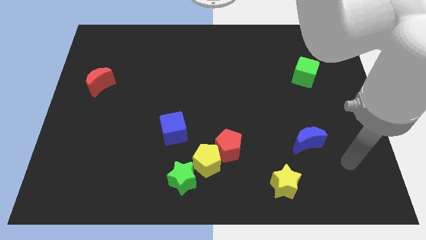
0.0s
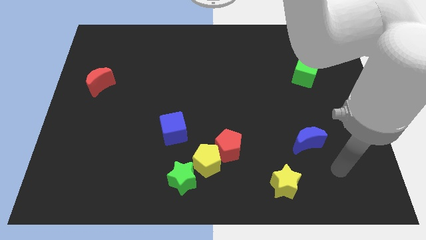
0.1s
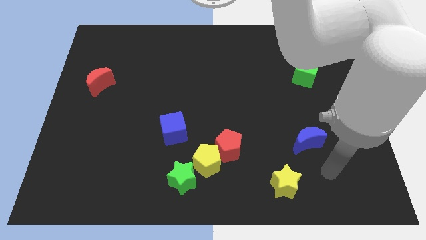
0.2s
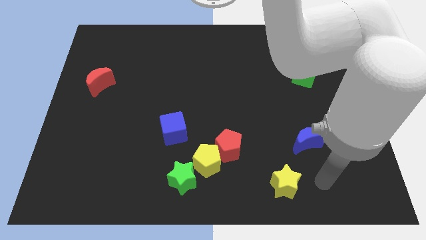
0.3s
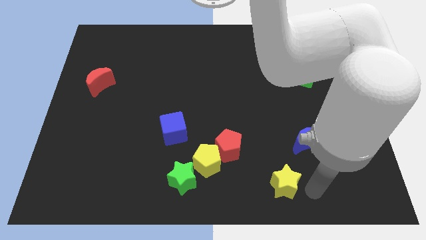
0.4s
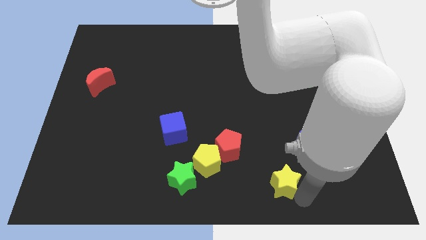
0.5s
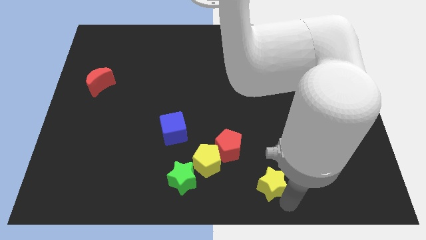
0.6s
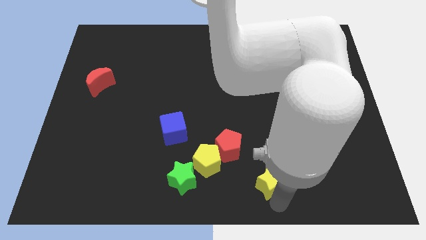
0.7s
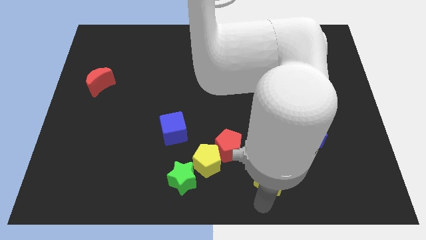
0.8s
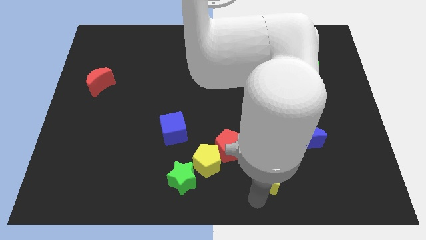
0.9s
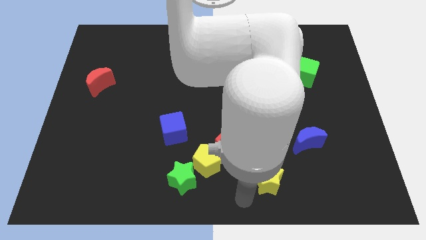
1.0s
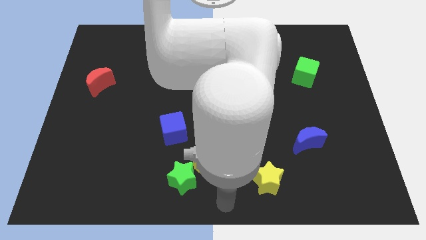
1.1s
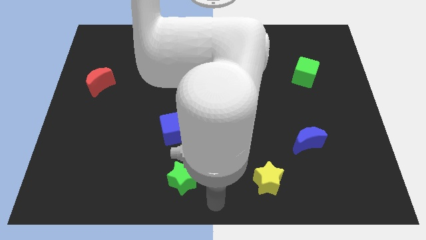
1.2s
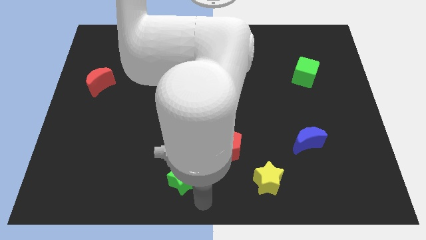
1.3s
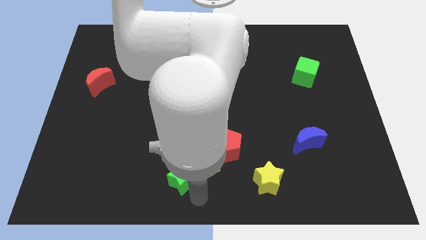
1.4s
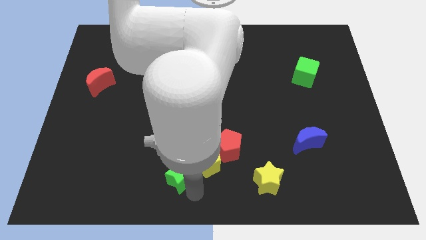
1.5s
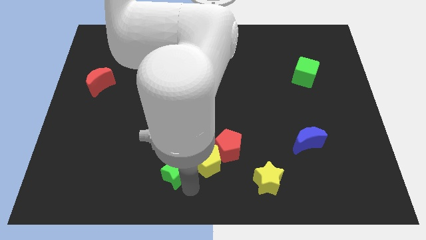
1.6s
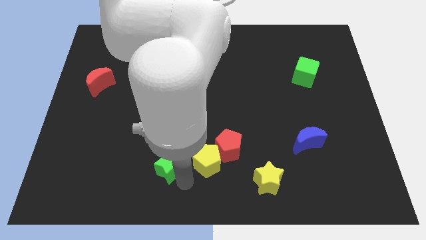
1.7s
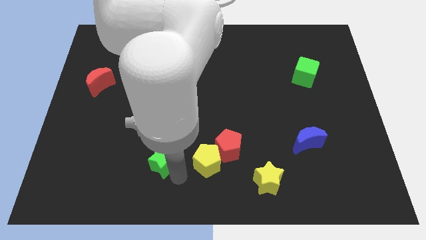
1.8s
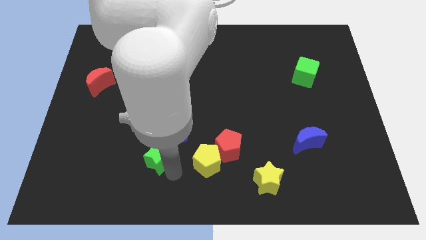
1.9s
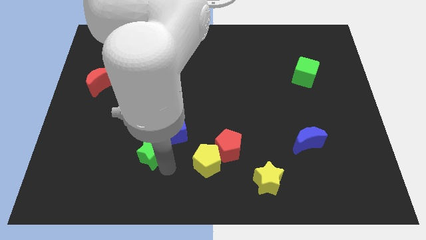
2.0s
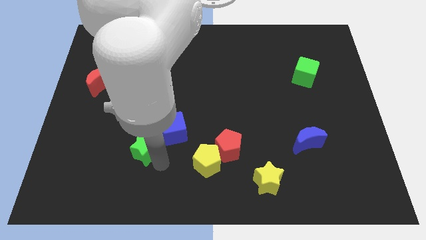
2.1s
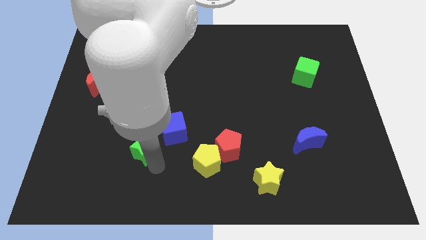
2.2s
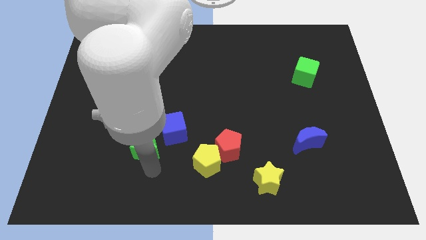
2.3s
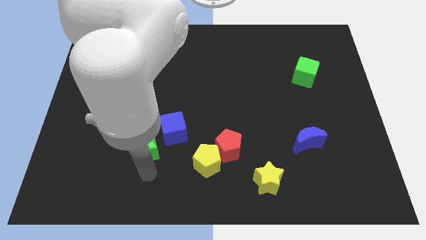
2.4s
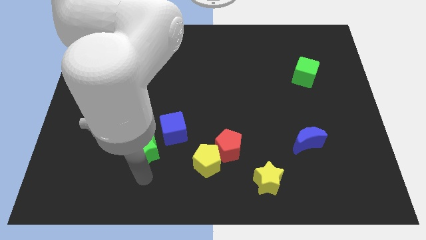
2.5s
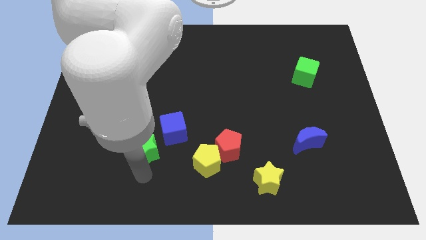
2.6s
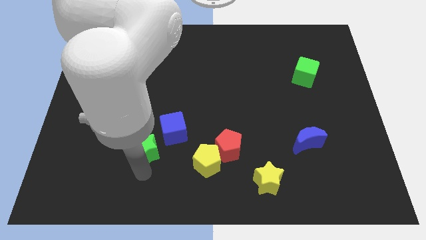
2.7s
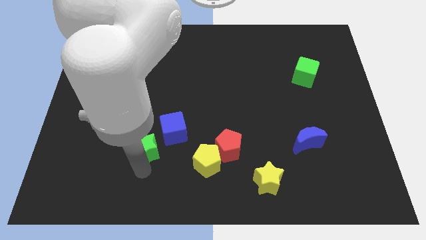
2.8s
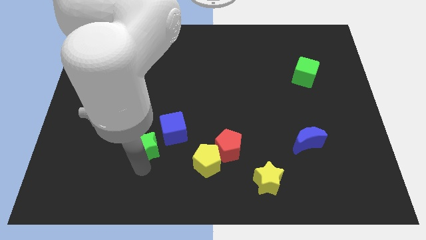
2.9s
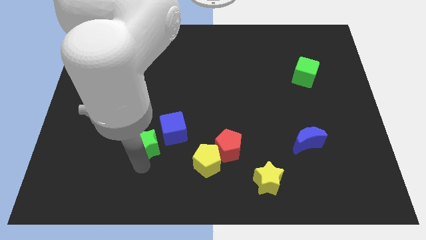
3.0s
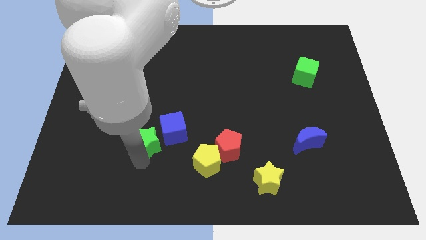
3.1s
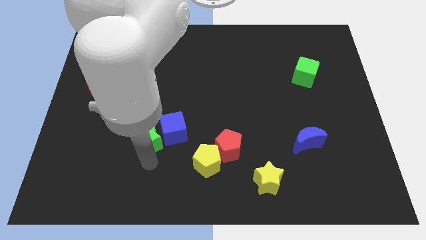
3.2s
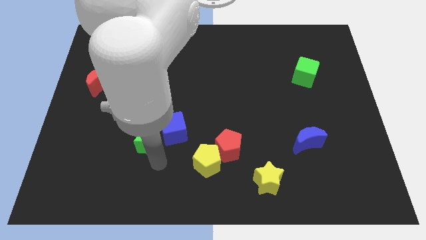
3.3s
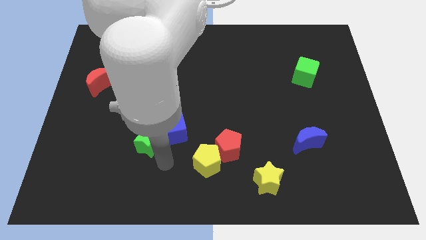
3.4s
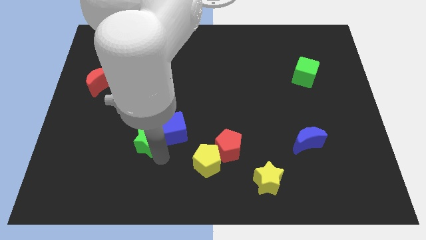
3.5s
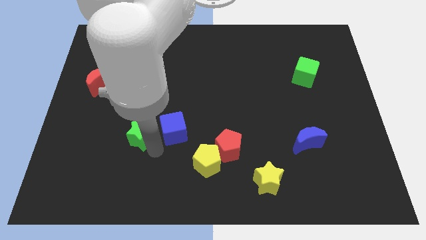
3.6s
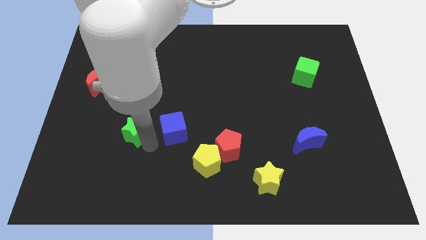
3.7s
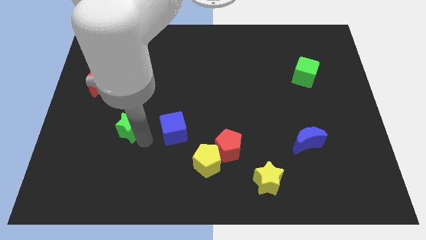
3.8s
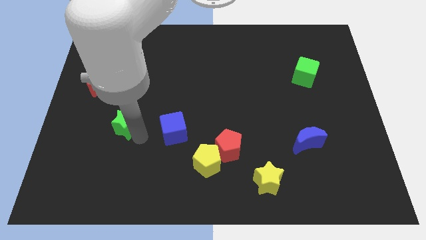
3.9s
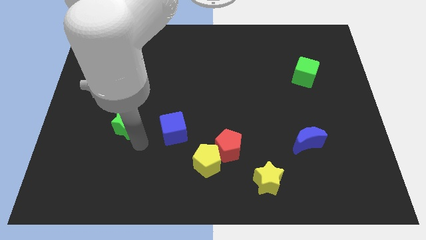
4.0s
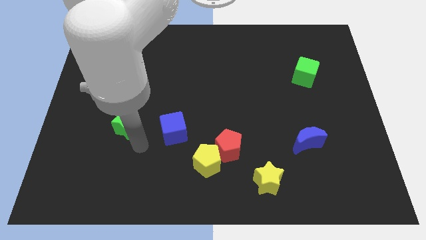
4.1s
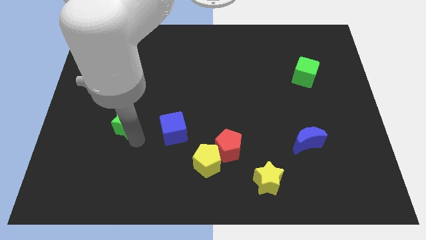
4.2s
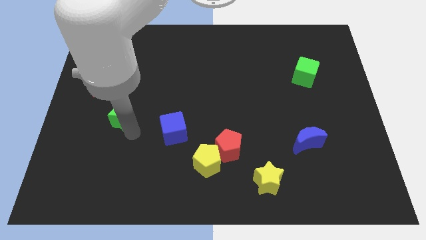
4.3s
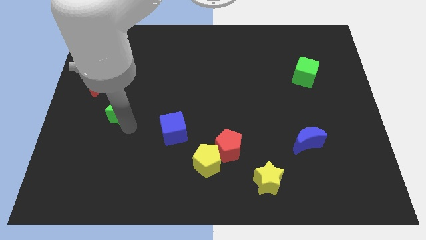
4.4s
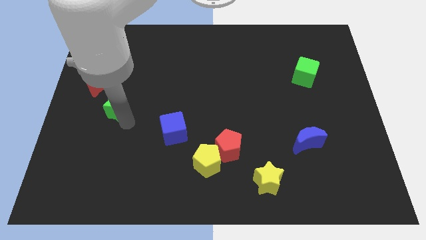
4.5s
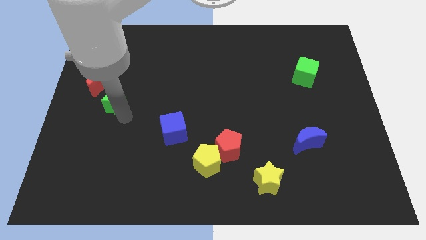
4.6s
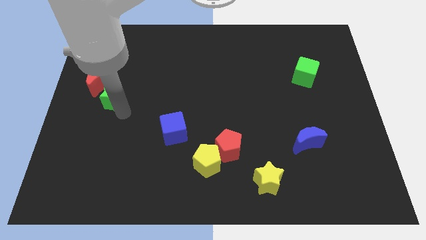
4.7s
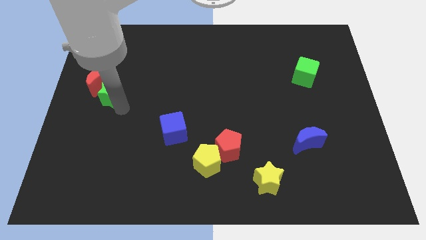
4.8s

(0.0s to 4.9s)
push the green star towards the red moon

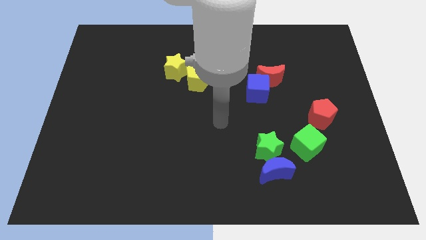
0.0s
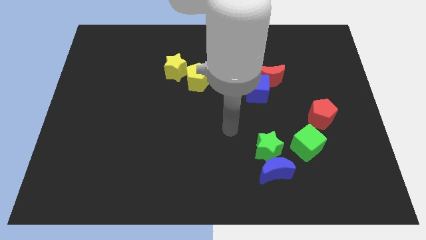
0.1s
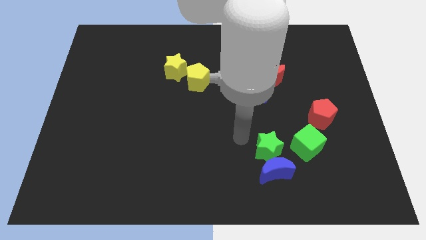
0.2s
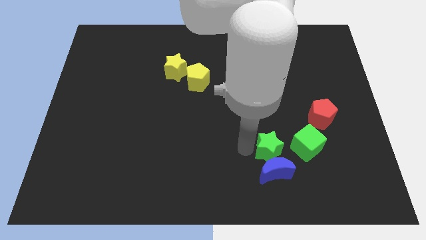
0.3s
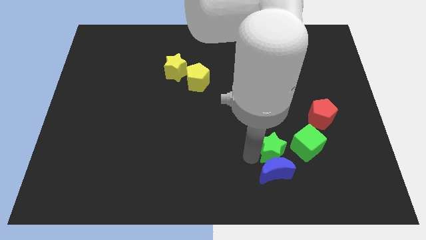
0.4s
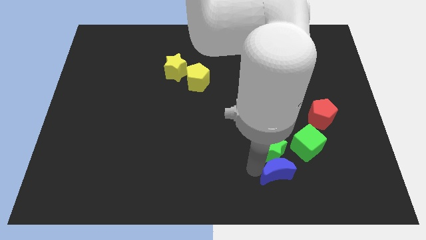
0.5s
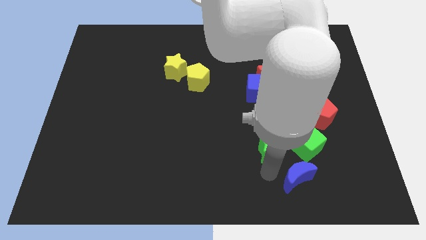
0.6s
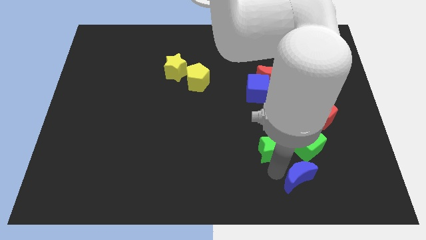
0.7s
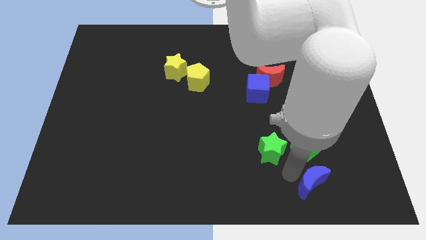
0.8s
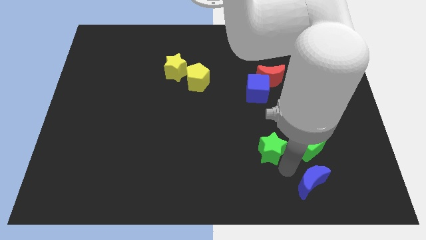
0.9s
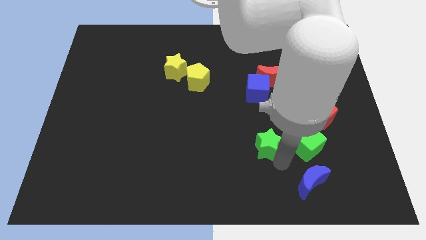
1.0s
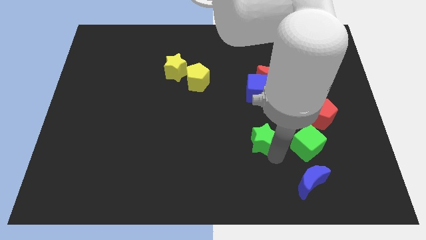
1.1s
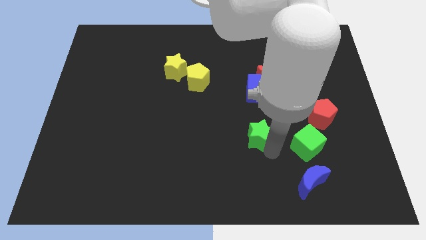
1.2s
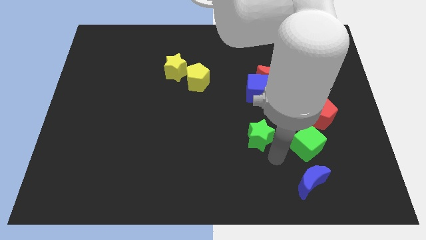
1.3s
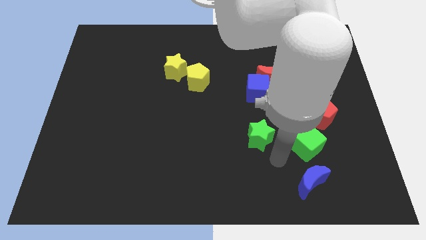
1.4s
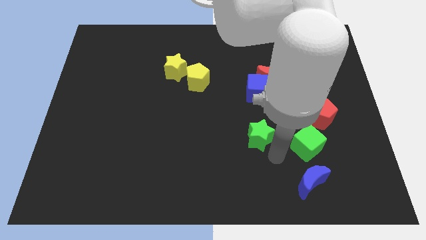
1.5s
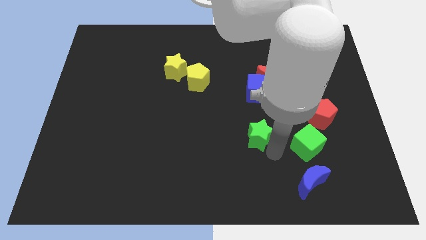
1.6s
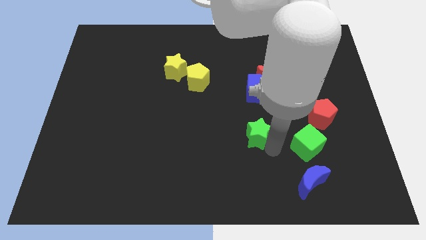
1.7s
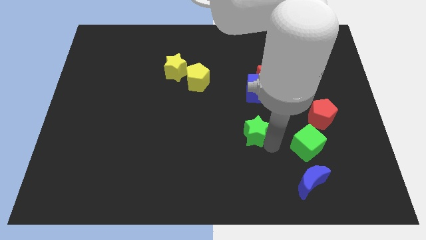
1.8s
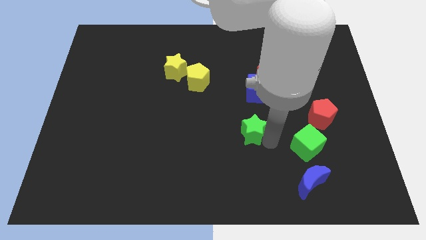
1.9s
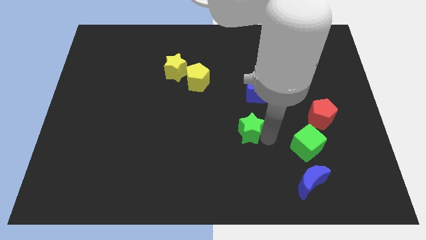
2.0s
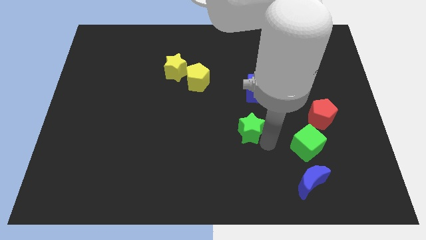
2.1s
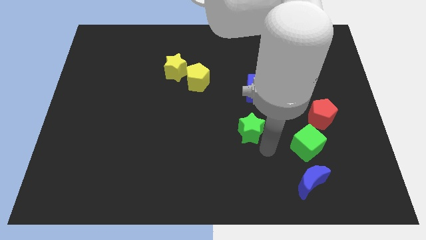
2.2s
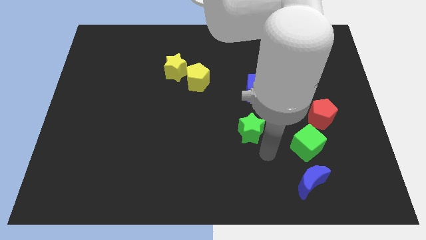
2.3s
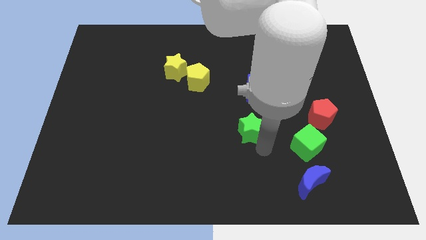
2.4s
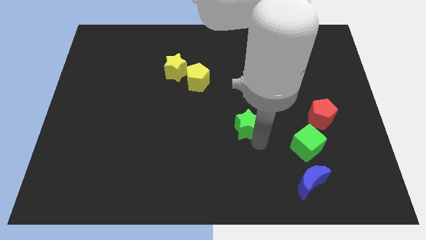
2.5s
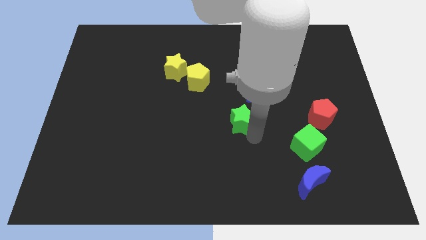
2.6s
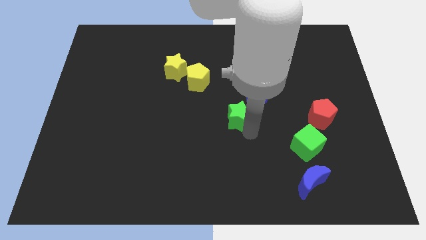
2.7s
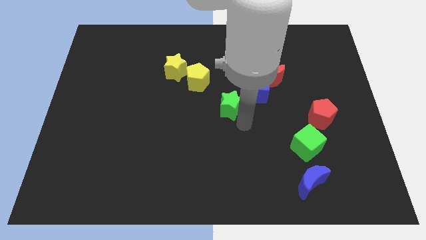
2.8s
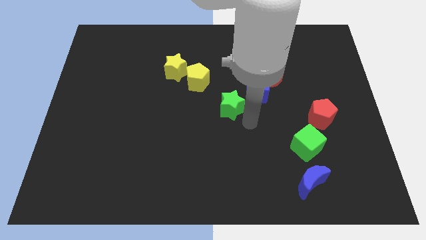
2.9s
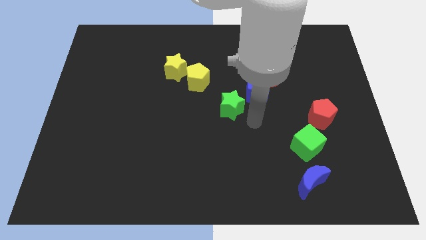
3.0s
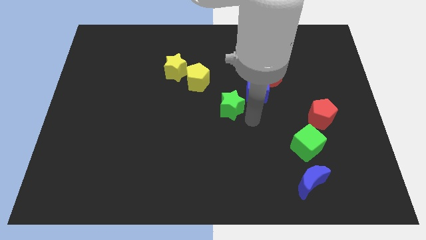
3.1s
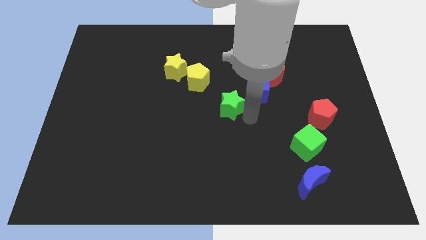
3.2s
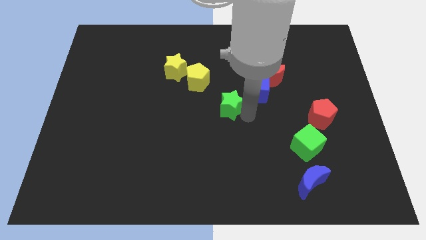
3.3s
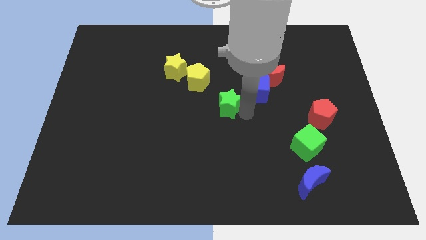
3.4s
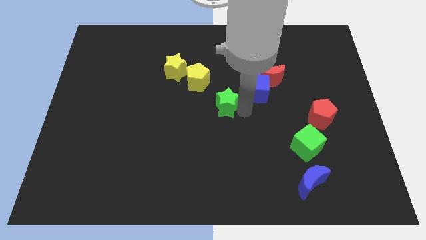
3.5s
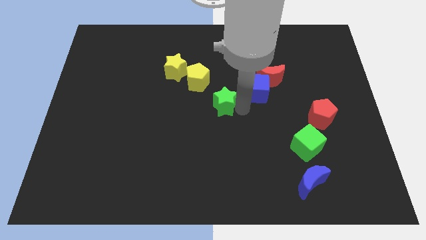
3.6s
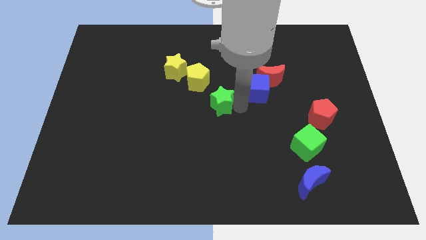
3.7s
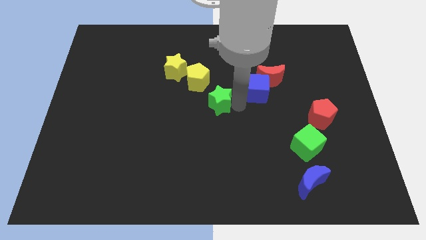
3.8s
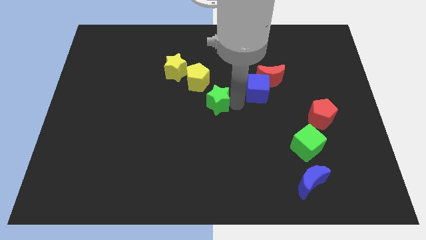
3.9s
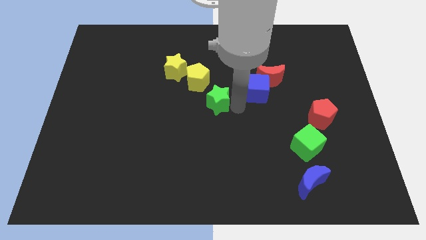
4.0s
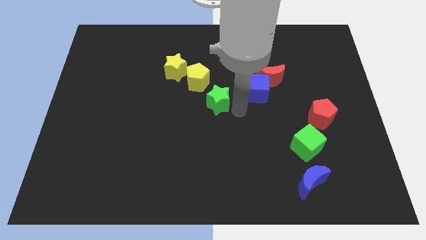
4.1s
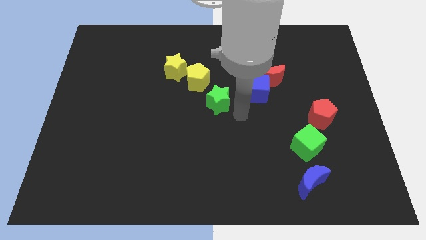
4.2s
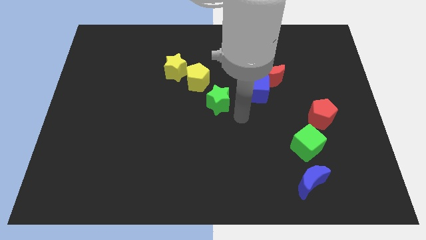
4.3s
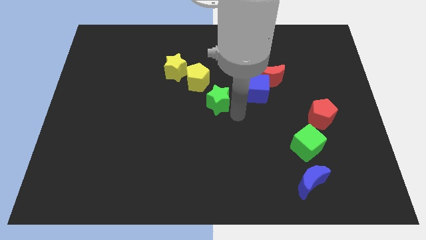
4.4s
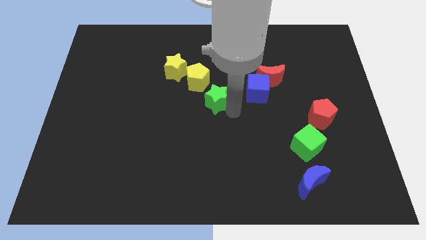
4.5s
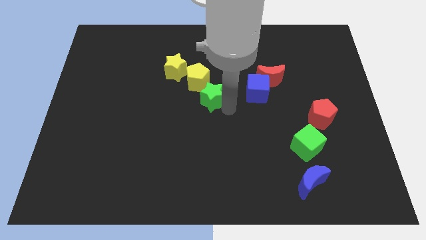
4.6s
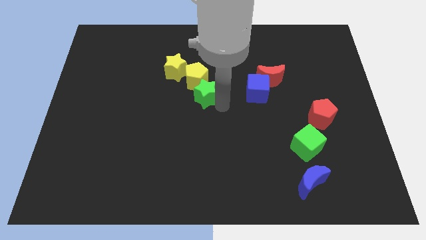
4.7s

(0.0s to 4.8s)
move the green star to the yellow pentagon
